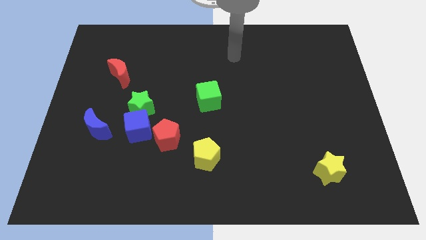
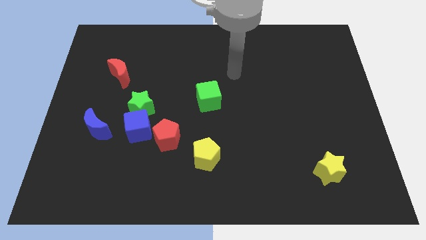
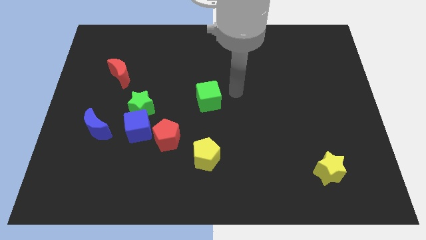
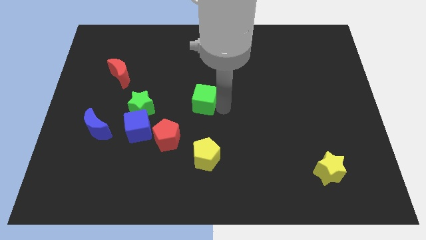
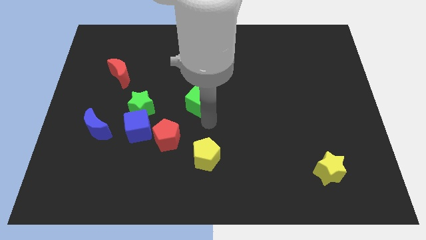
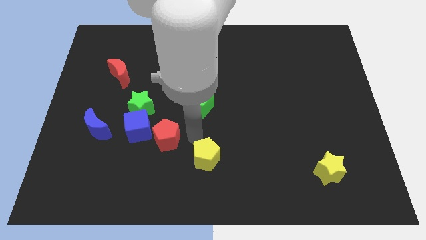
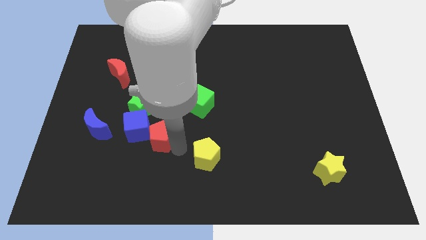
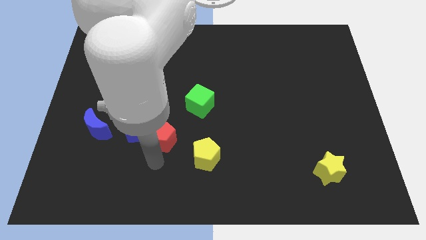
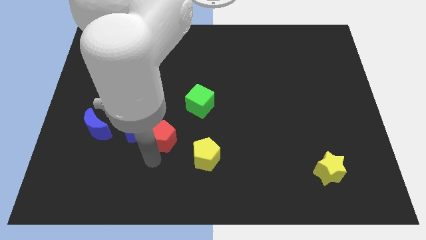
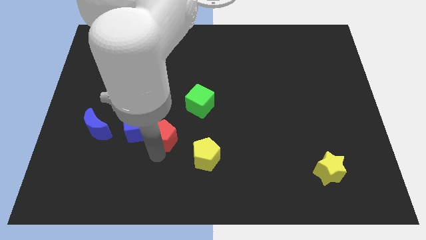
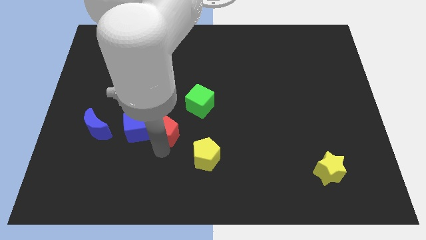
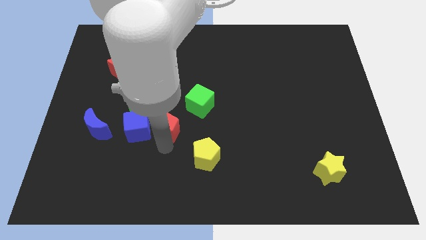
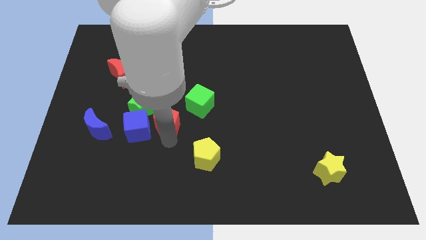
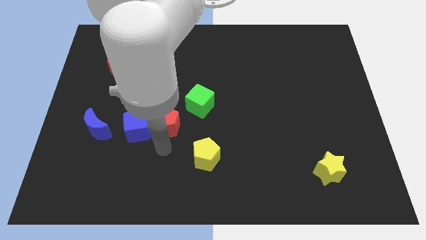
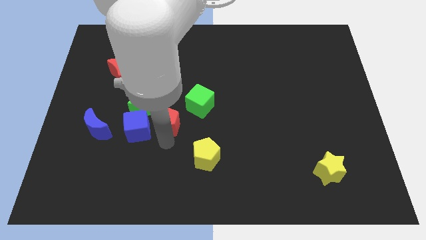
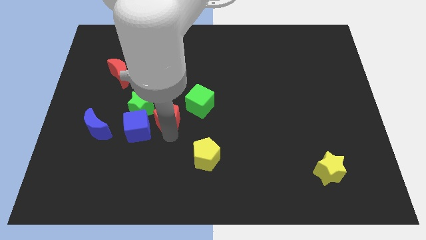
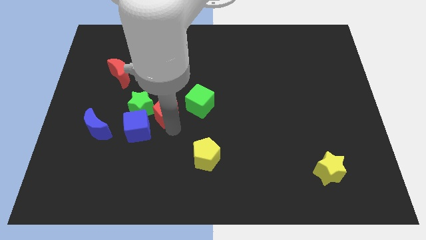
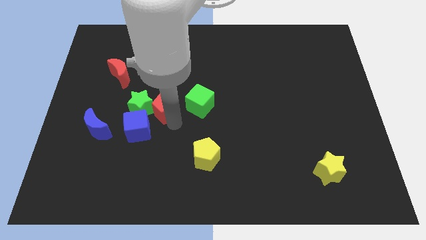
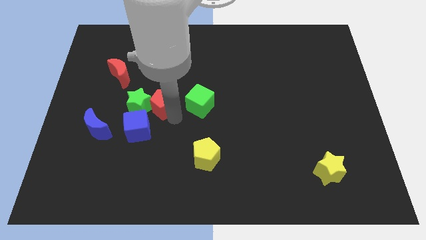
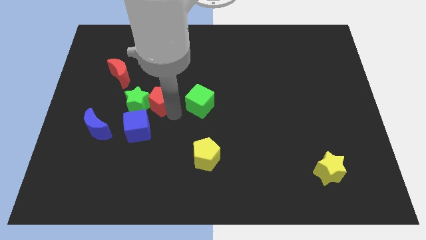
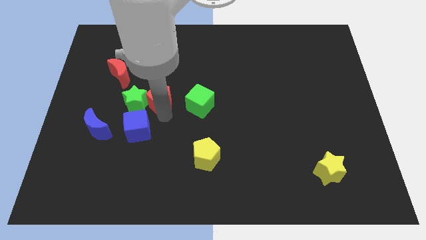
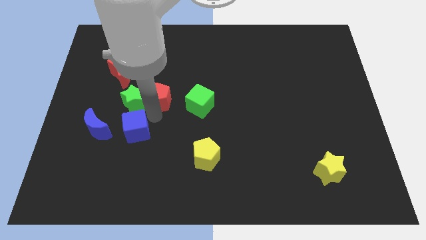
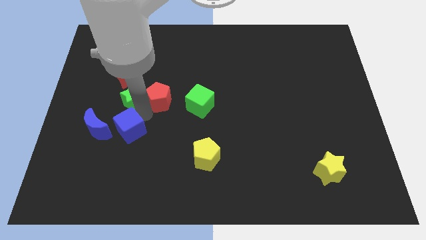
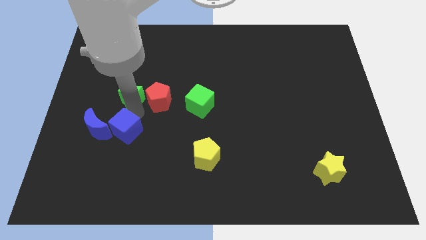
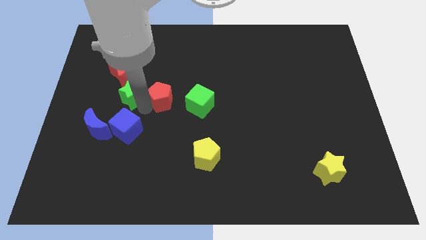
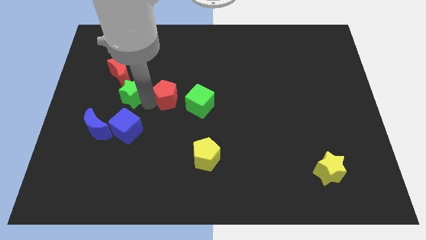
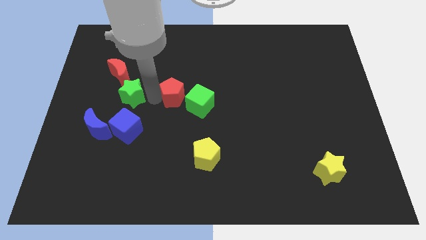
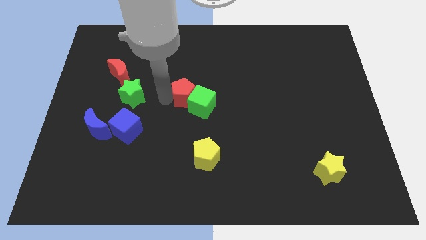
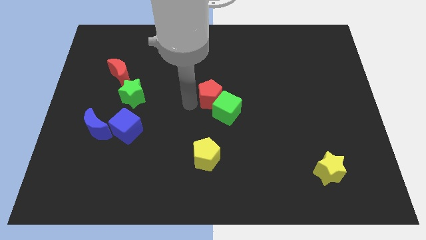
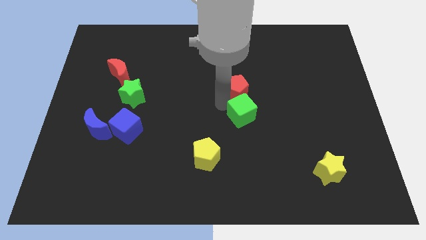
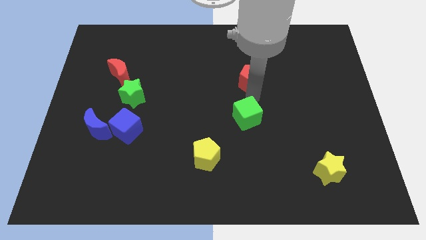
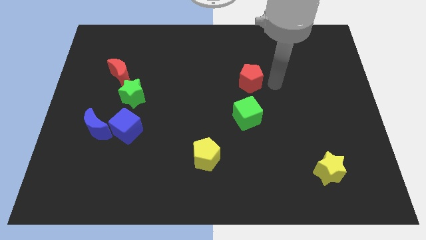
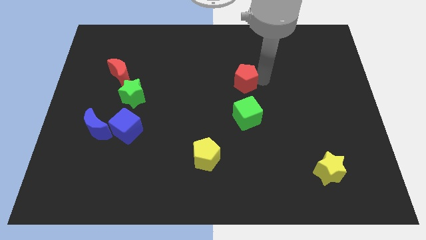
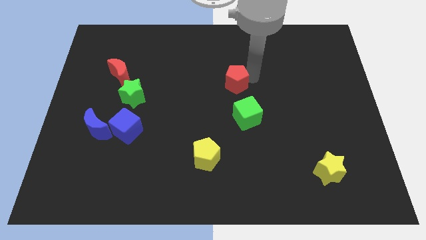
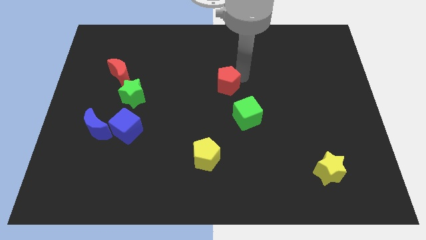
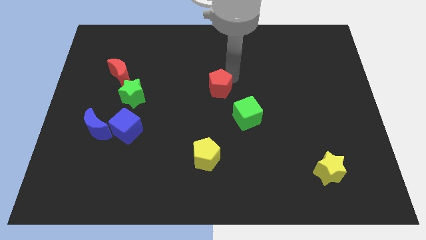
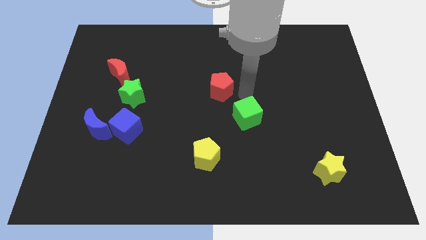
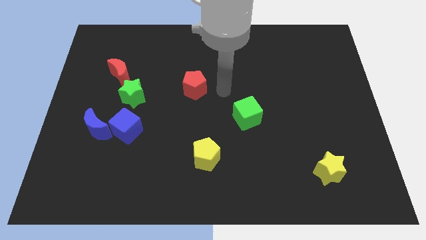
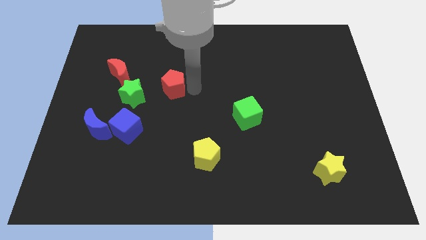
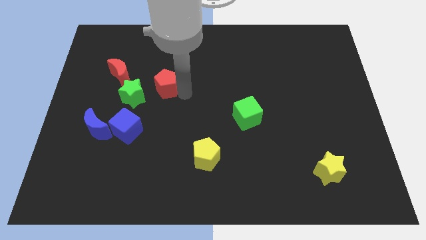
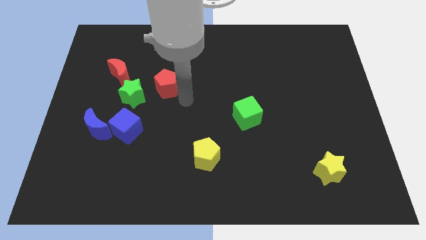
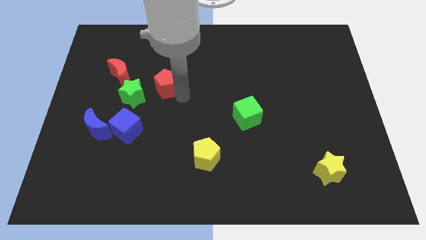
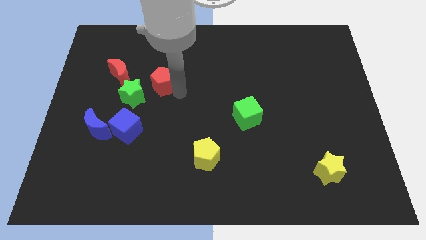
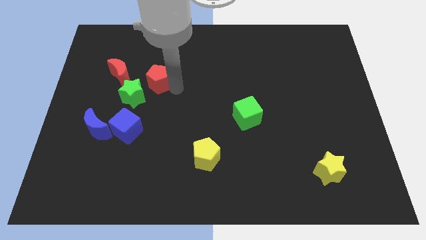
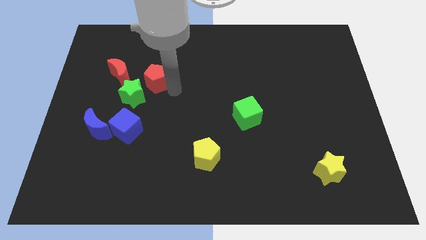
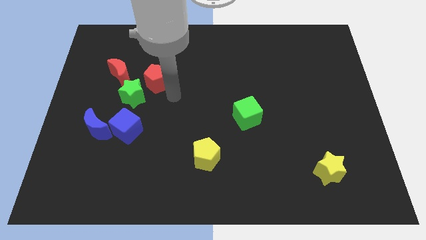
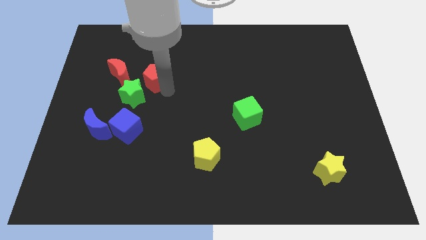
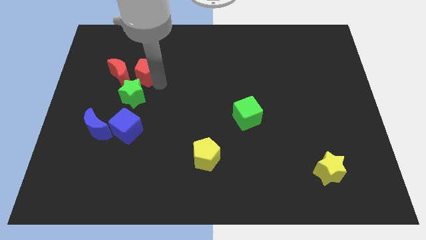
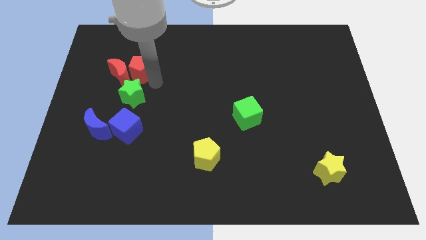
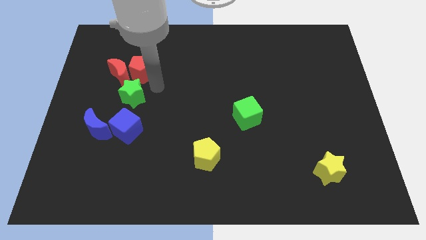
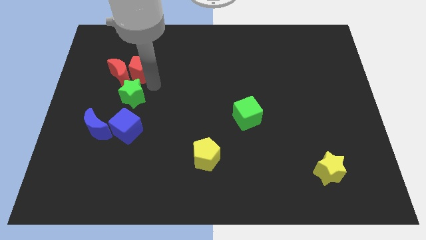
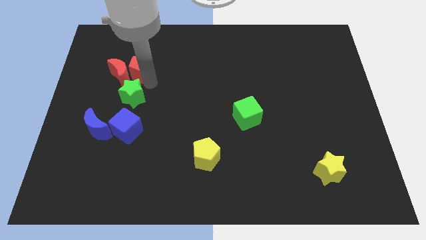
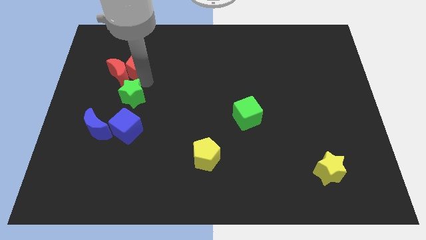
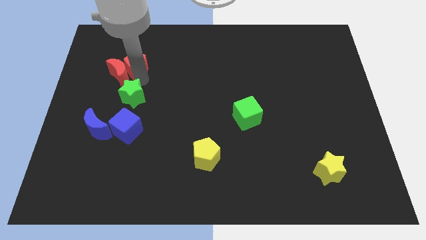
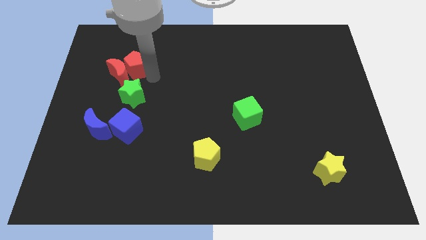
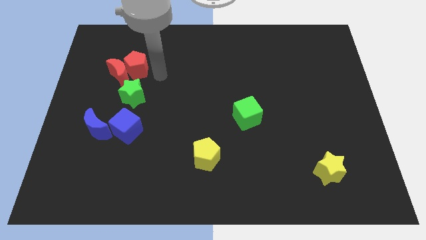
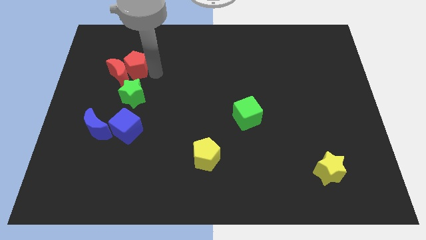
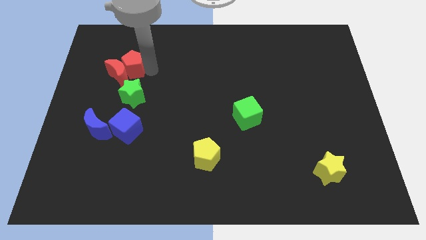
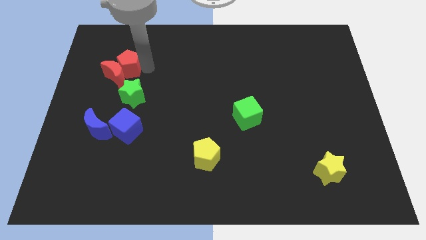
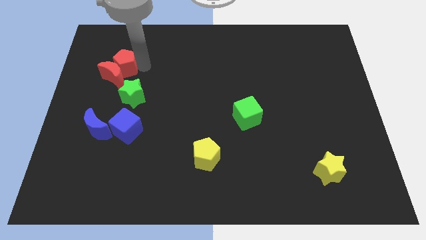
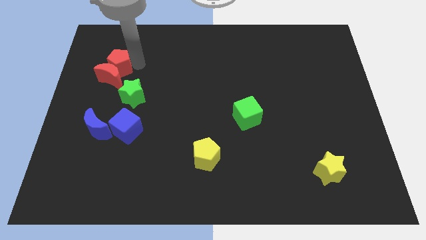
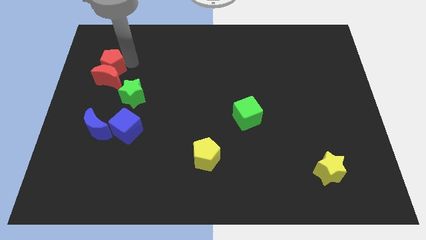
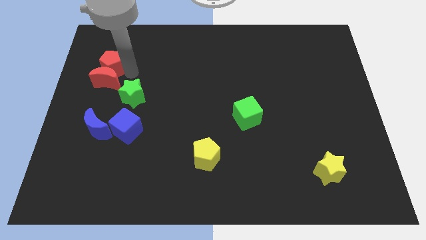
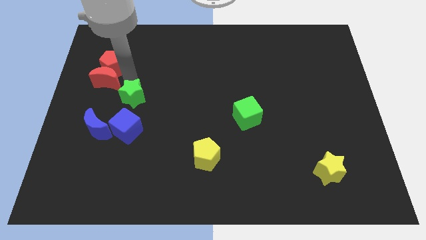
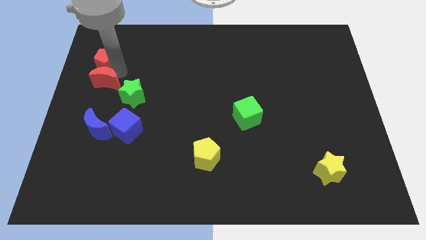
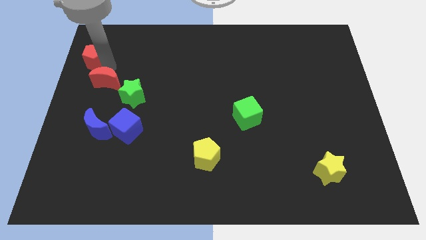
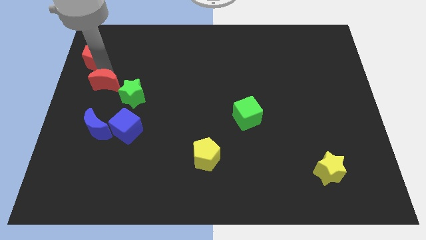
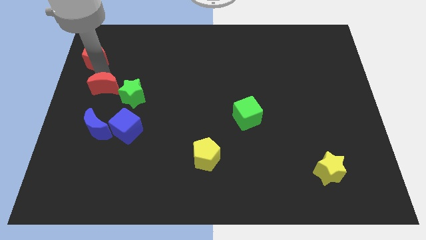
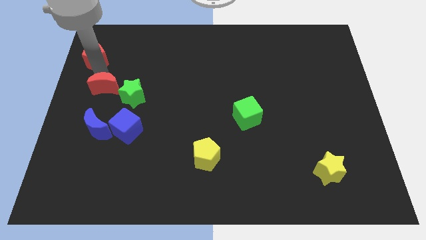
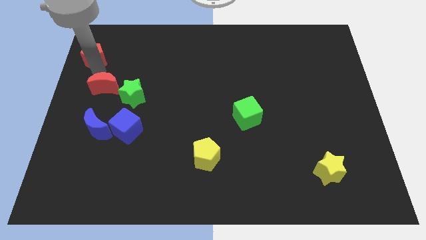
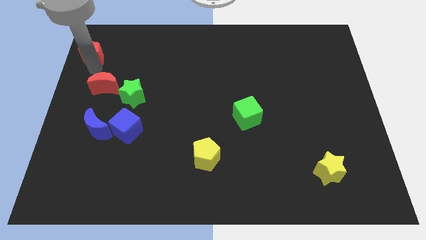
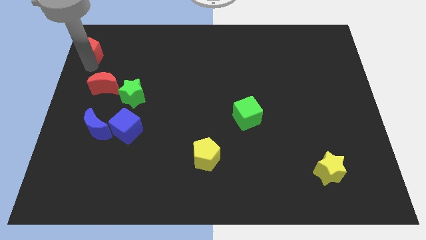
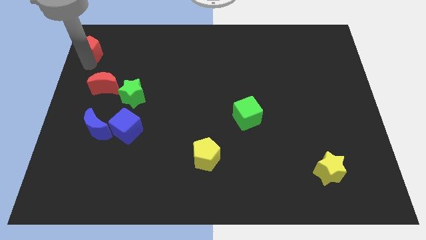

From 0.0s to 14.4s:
put the red pentagon to the upper left corner
